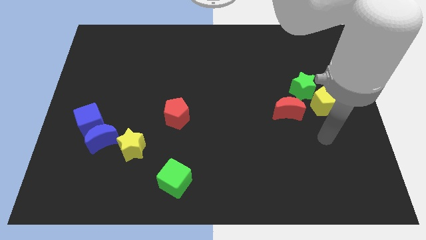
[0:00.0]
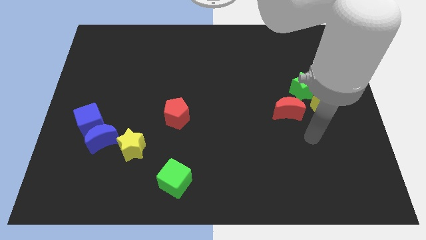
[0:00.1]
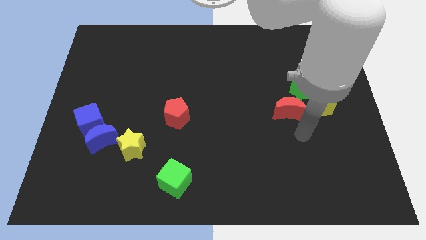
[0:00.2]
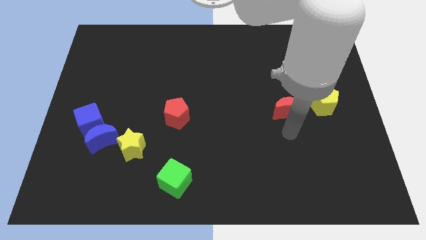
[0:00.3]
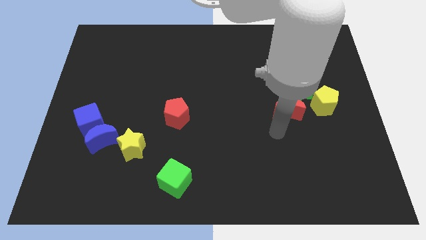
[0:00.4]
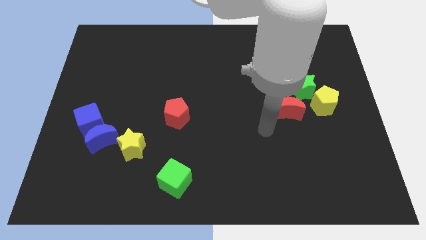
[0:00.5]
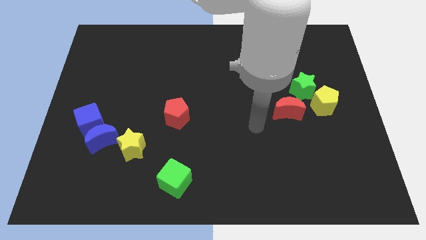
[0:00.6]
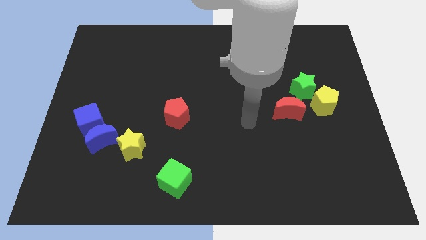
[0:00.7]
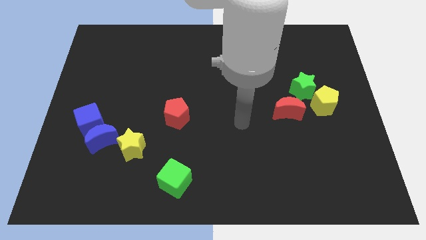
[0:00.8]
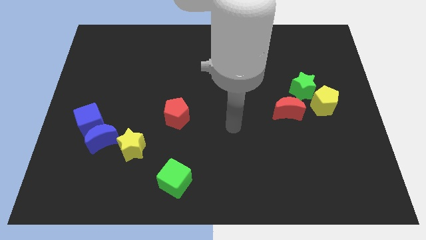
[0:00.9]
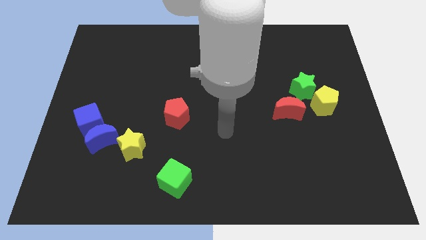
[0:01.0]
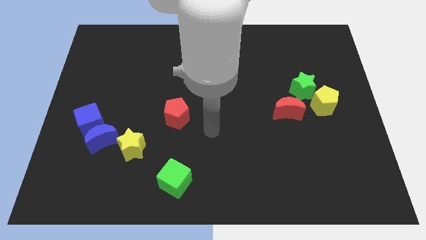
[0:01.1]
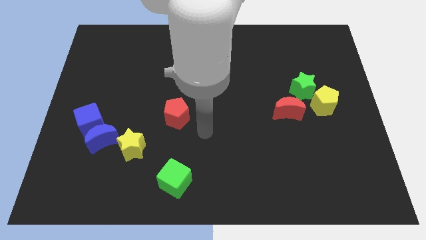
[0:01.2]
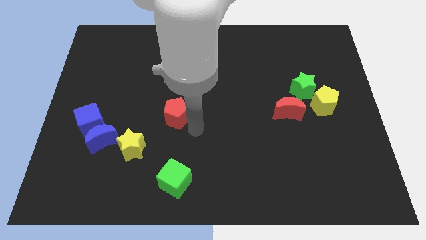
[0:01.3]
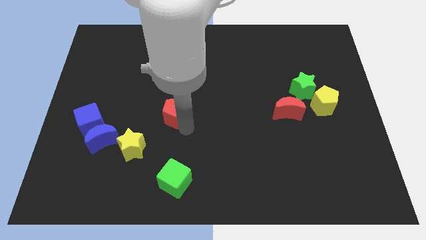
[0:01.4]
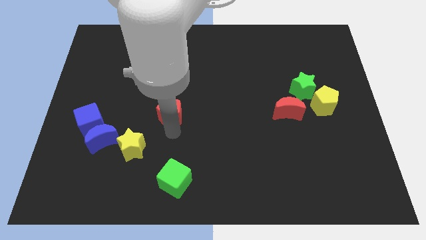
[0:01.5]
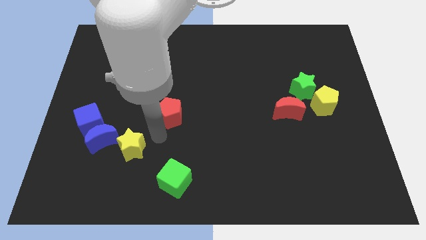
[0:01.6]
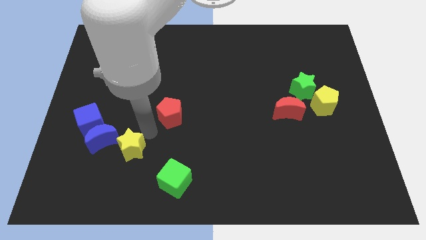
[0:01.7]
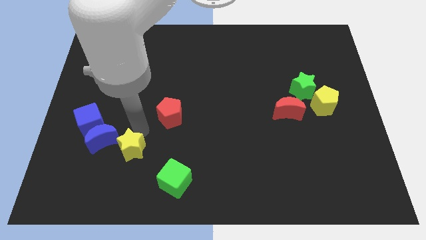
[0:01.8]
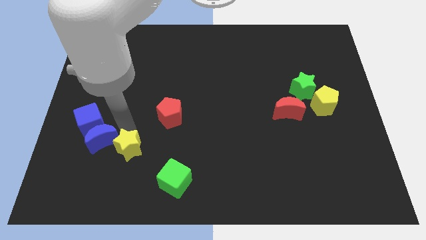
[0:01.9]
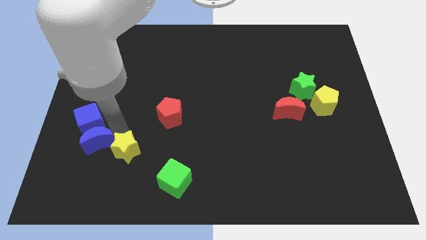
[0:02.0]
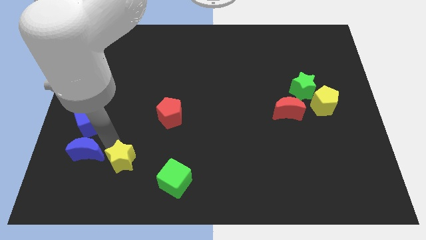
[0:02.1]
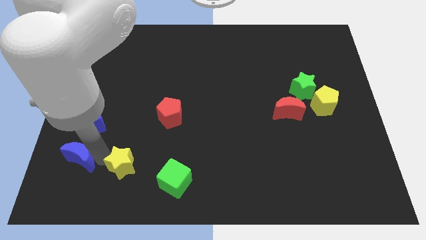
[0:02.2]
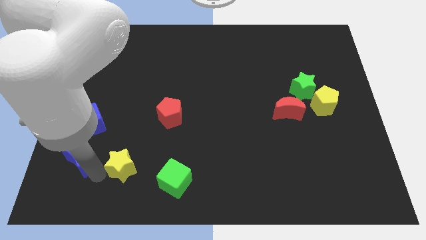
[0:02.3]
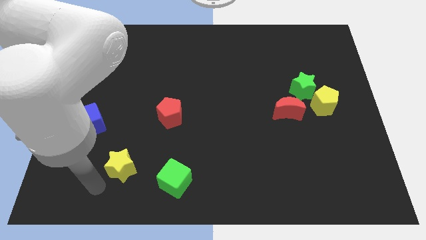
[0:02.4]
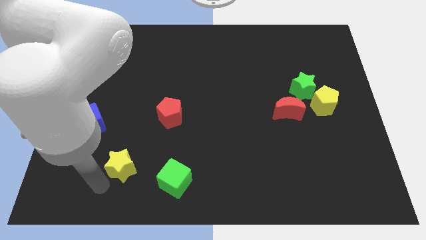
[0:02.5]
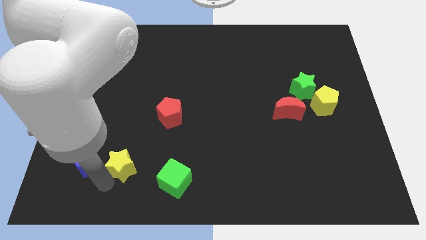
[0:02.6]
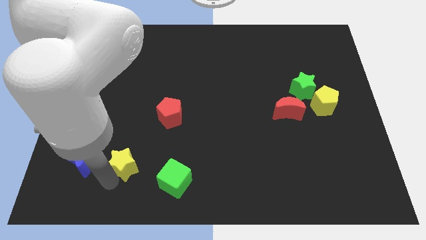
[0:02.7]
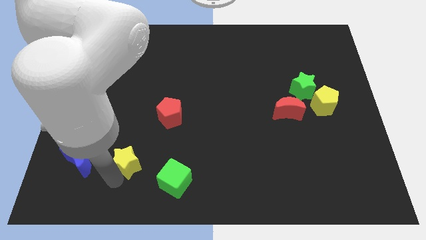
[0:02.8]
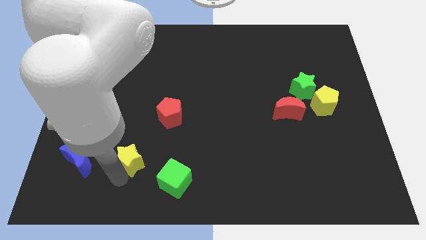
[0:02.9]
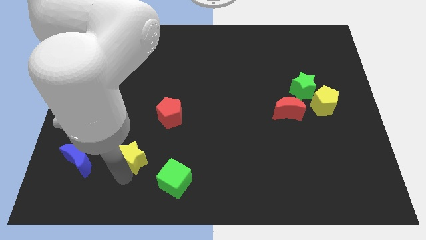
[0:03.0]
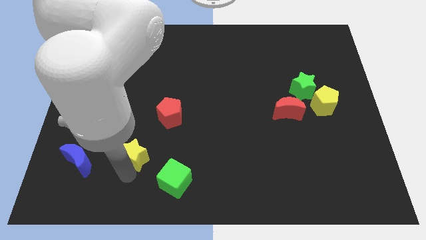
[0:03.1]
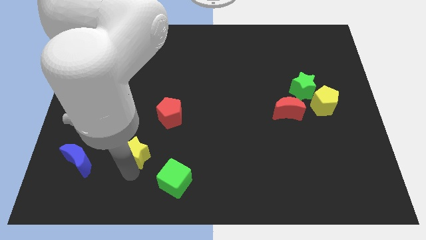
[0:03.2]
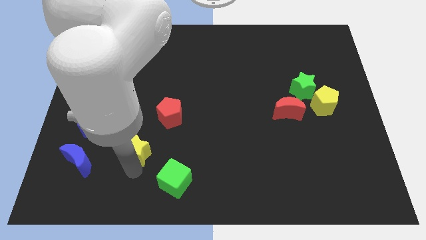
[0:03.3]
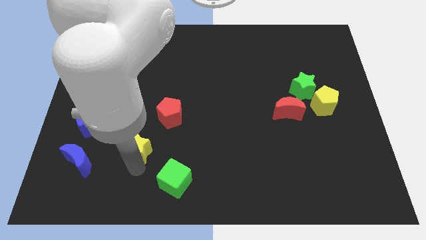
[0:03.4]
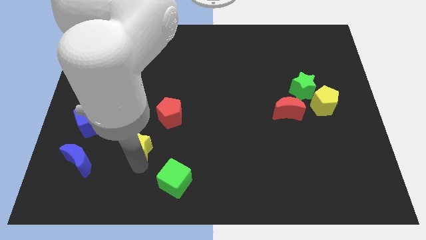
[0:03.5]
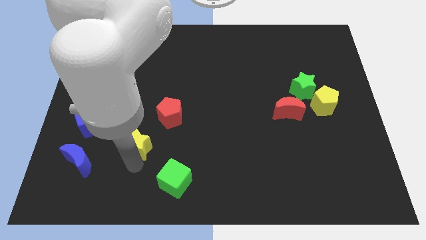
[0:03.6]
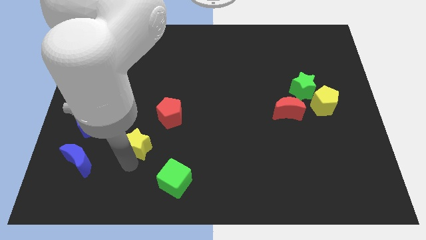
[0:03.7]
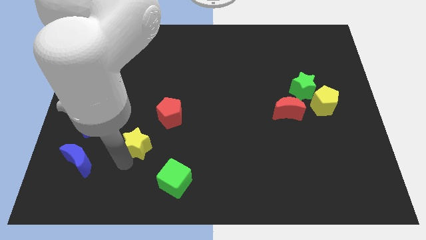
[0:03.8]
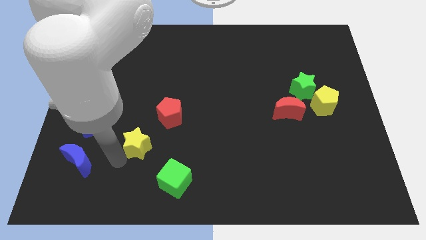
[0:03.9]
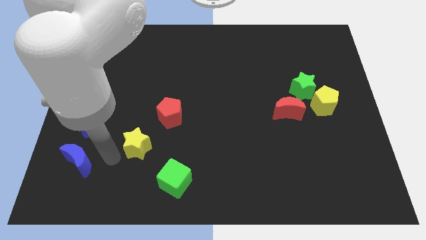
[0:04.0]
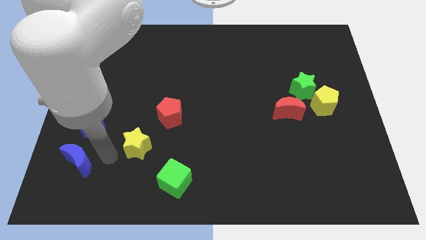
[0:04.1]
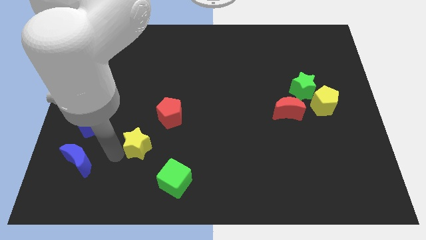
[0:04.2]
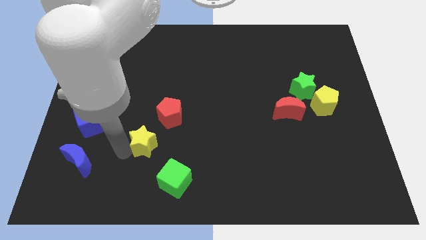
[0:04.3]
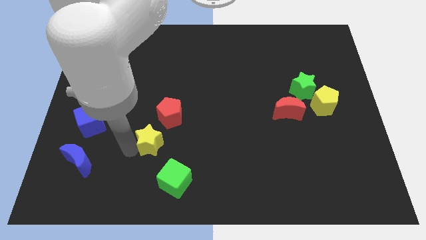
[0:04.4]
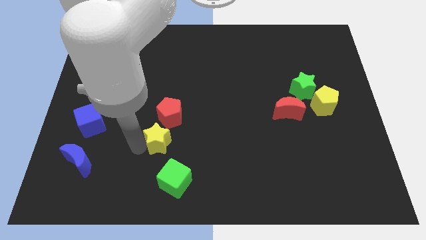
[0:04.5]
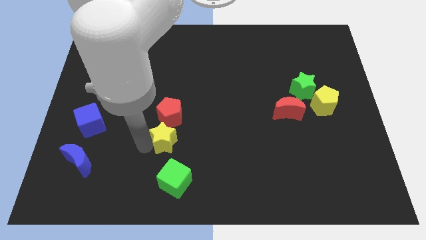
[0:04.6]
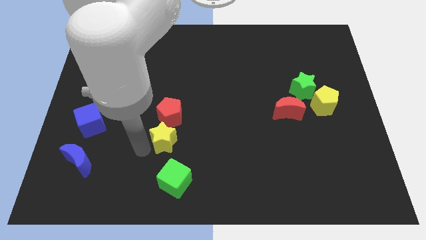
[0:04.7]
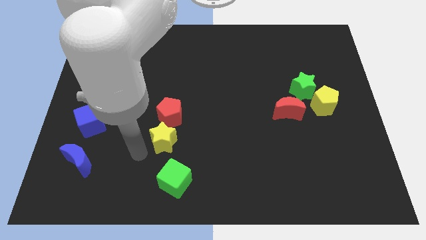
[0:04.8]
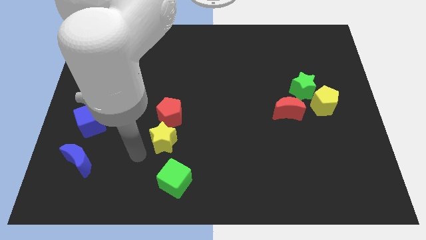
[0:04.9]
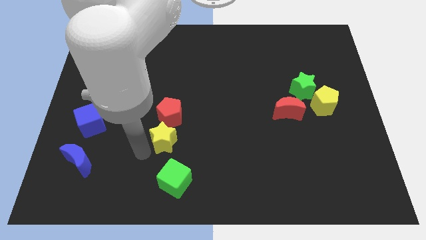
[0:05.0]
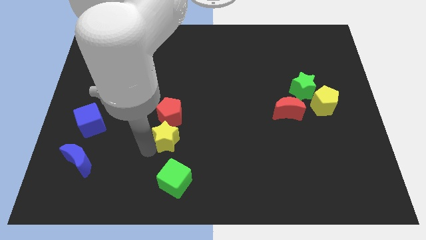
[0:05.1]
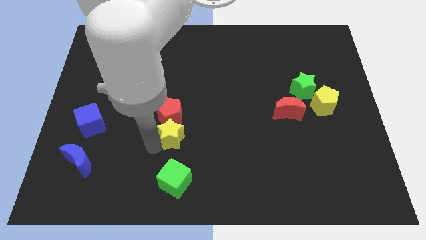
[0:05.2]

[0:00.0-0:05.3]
move the yellow star a little bit up and to the right diagonally

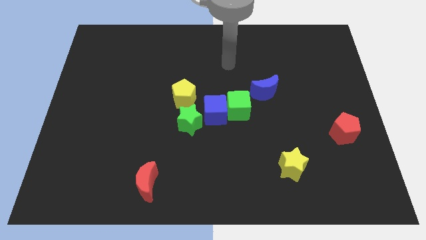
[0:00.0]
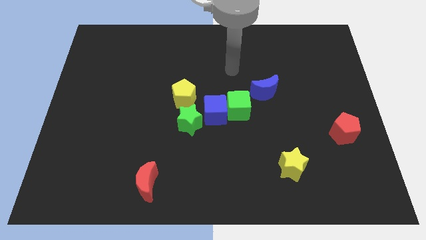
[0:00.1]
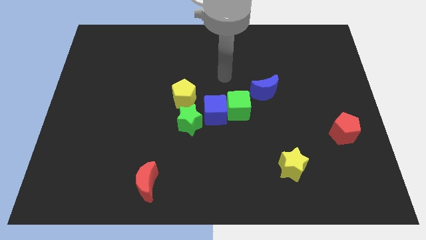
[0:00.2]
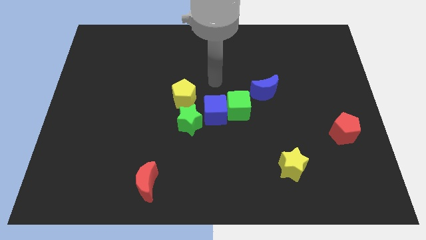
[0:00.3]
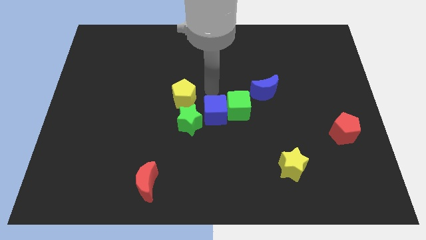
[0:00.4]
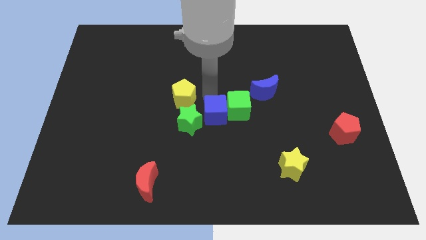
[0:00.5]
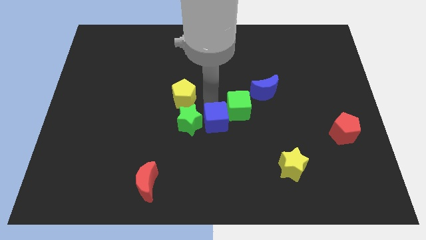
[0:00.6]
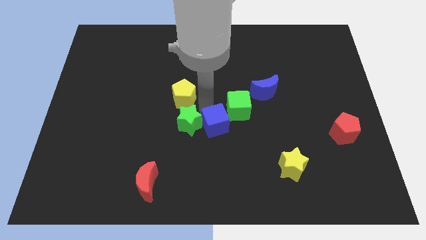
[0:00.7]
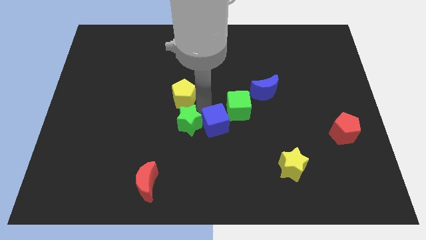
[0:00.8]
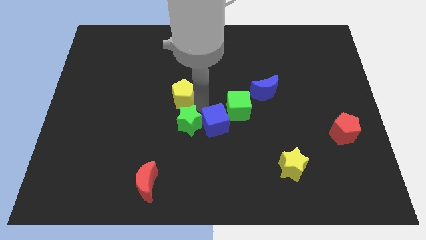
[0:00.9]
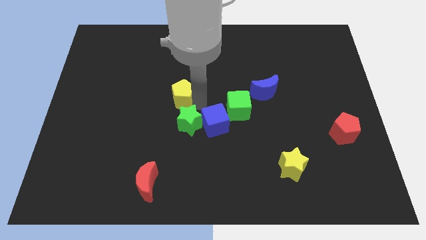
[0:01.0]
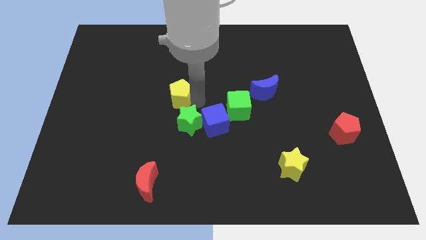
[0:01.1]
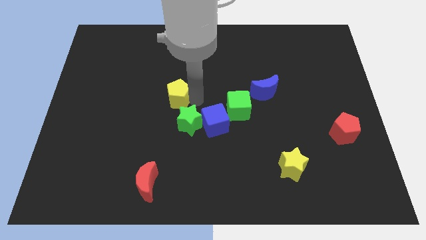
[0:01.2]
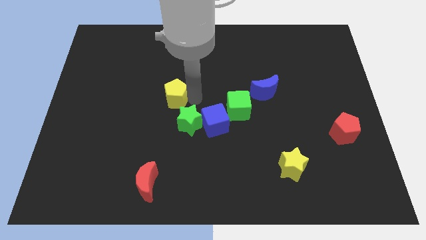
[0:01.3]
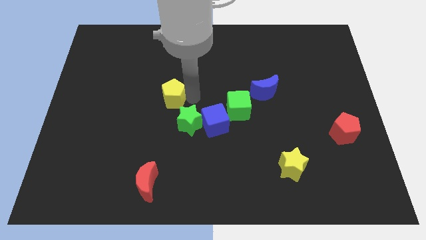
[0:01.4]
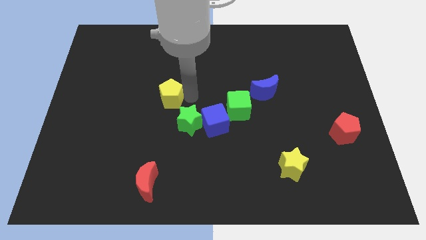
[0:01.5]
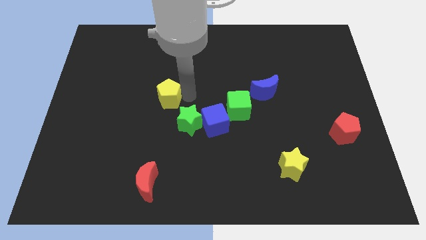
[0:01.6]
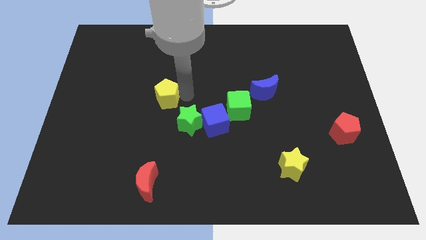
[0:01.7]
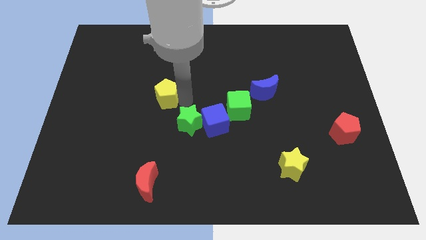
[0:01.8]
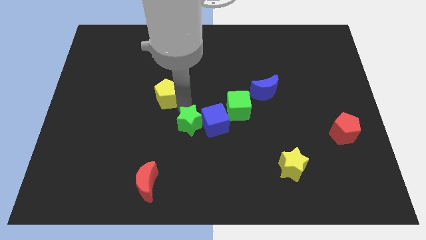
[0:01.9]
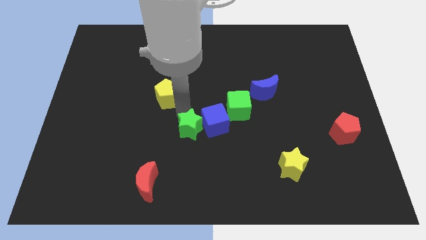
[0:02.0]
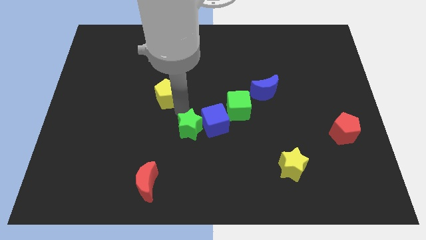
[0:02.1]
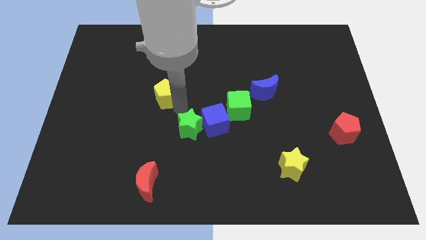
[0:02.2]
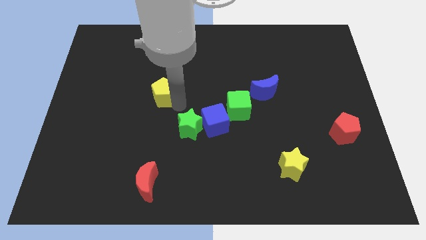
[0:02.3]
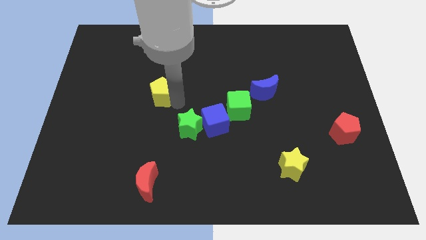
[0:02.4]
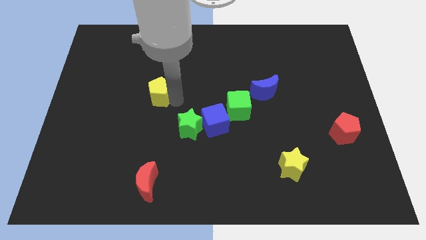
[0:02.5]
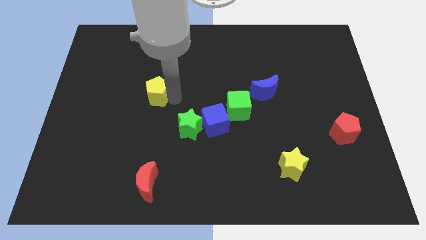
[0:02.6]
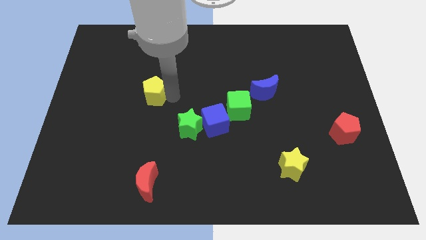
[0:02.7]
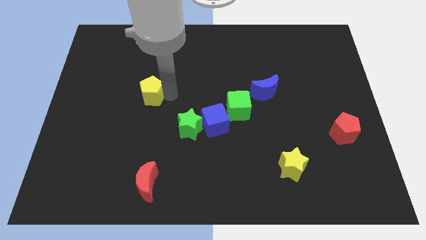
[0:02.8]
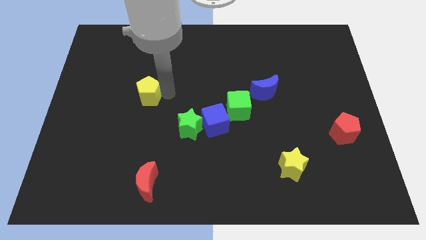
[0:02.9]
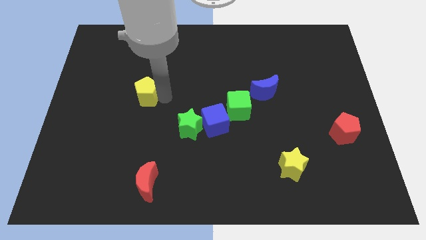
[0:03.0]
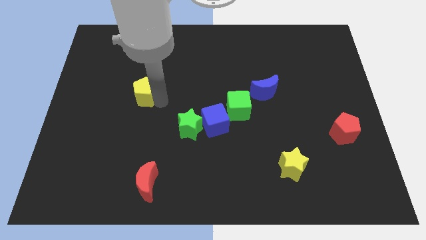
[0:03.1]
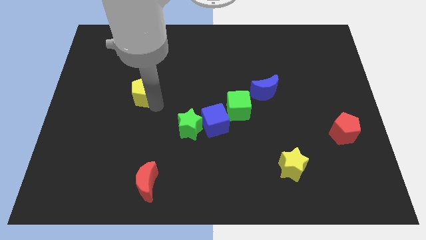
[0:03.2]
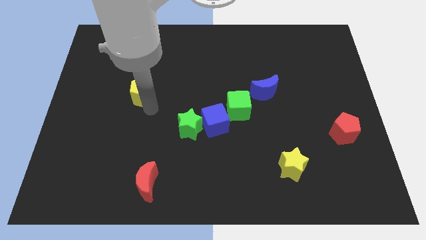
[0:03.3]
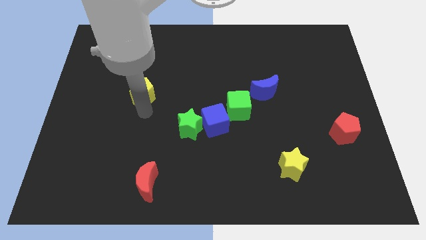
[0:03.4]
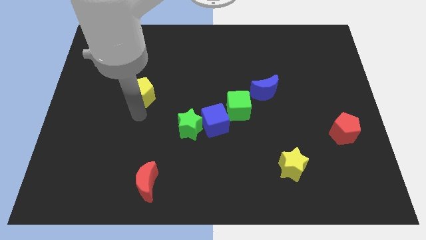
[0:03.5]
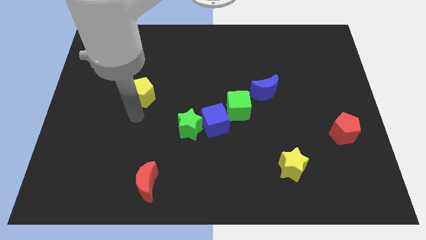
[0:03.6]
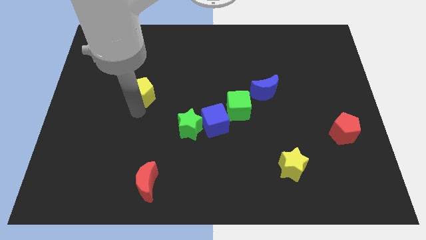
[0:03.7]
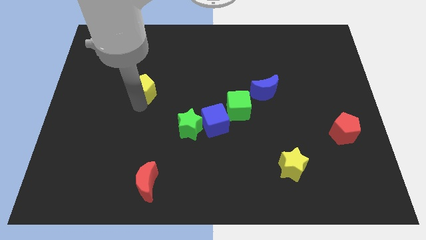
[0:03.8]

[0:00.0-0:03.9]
move the yellow pentagon upwards and to the left a little bit
